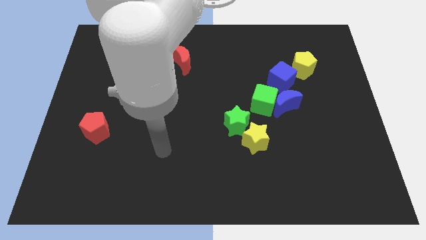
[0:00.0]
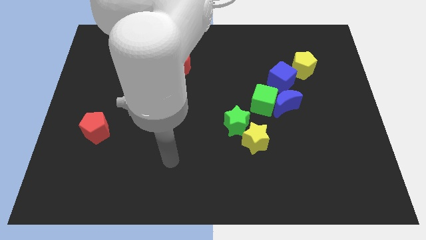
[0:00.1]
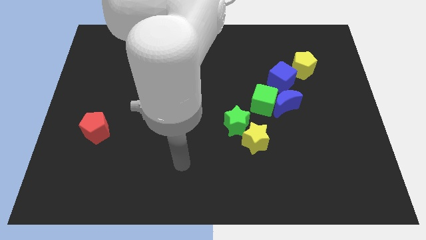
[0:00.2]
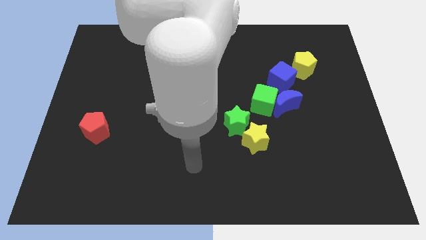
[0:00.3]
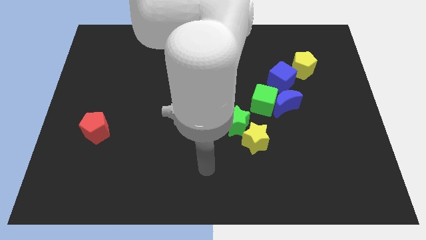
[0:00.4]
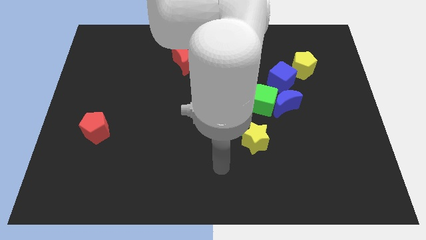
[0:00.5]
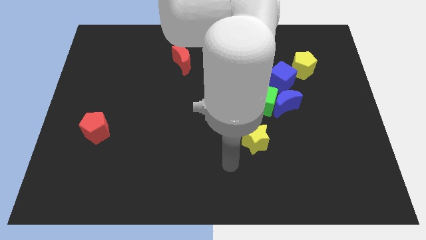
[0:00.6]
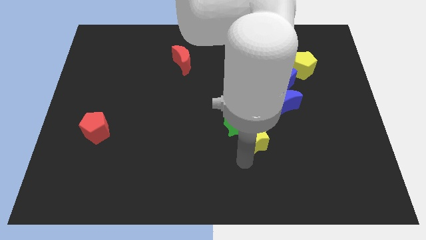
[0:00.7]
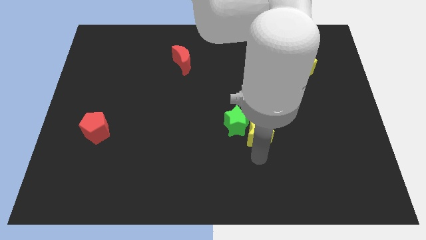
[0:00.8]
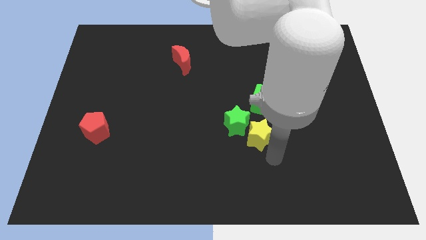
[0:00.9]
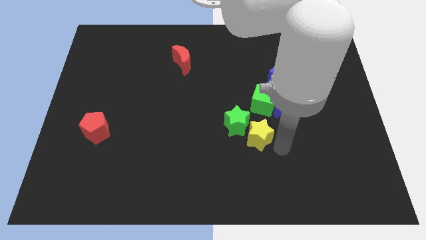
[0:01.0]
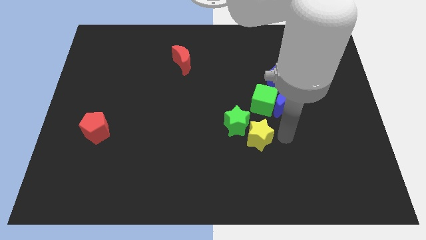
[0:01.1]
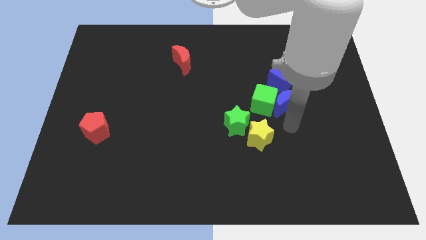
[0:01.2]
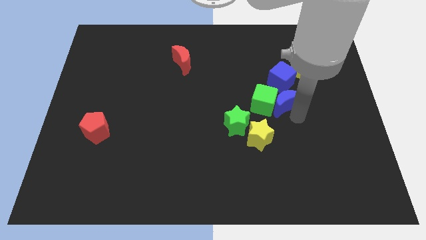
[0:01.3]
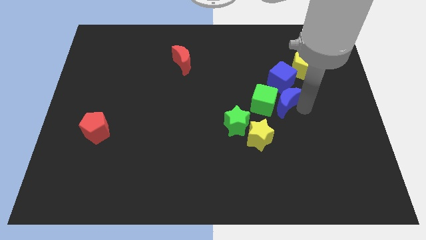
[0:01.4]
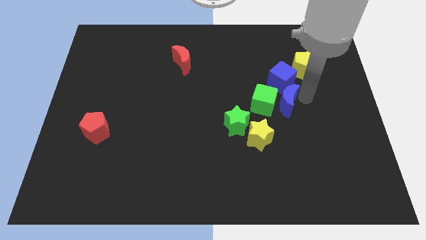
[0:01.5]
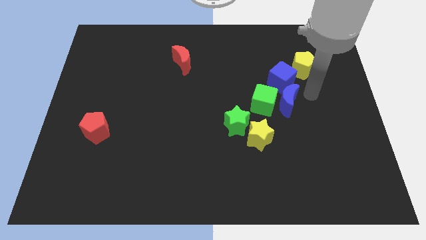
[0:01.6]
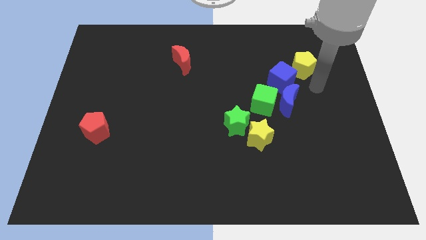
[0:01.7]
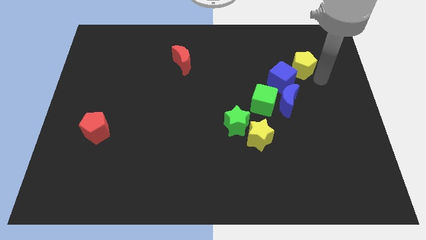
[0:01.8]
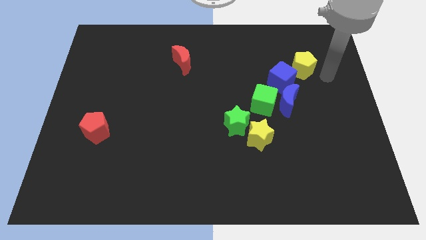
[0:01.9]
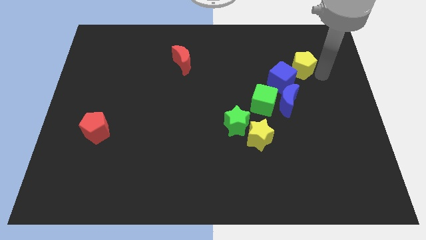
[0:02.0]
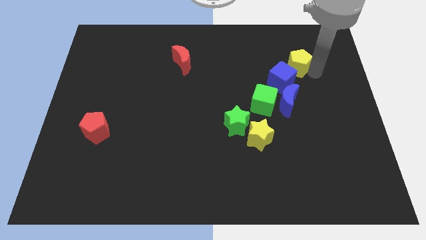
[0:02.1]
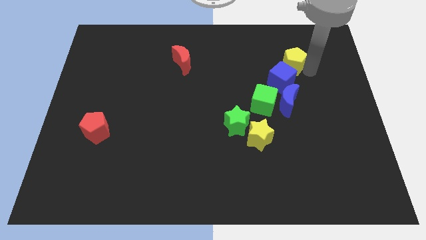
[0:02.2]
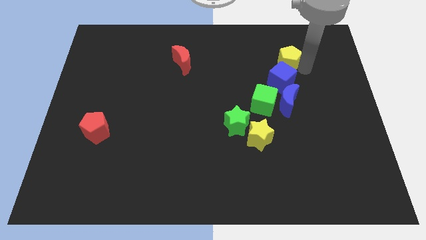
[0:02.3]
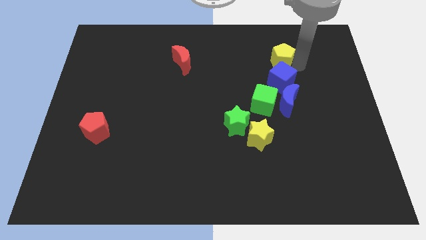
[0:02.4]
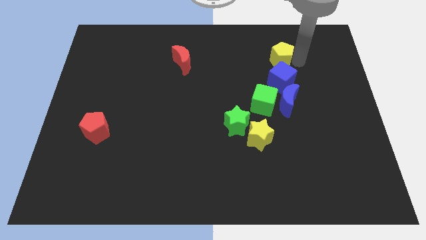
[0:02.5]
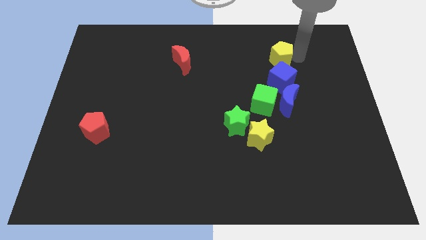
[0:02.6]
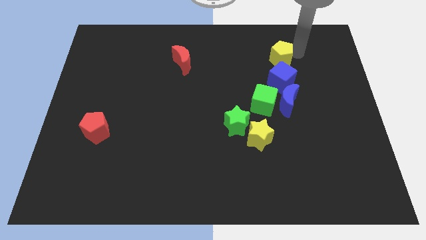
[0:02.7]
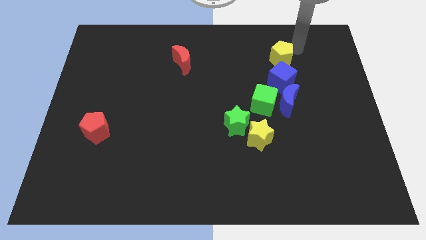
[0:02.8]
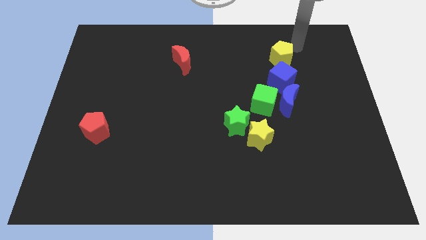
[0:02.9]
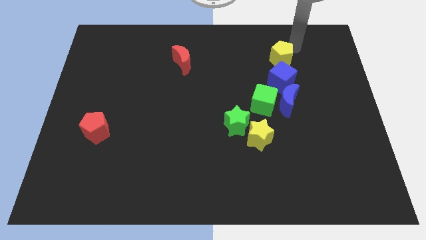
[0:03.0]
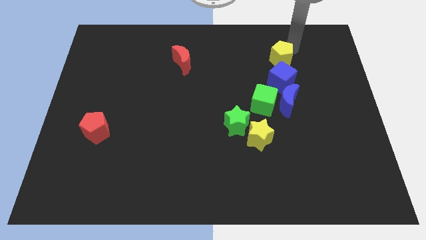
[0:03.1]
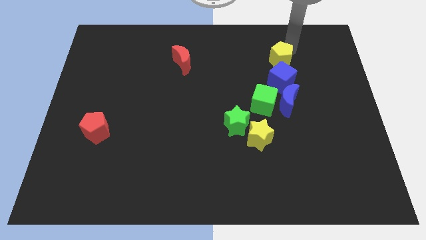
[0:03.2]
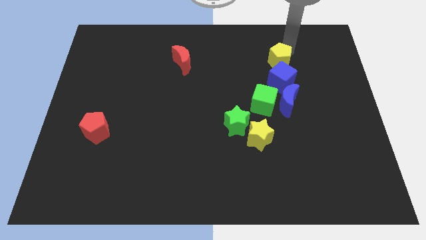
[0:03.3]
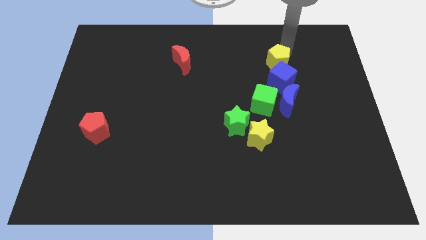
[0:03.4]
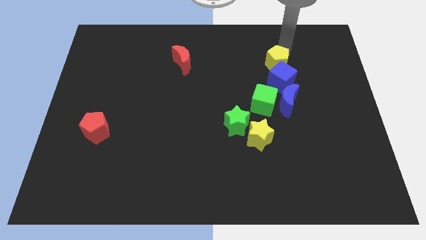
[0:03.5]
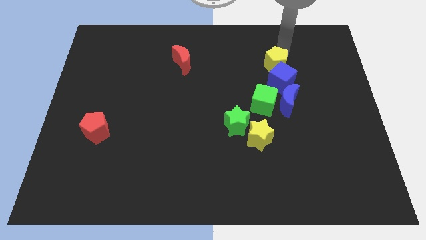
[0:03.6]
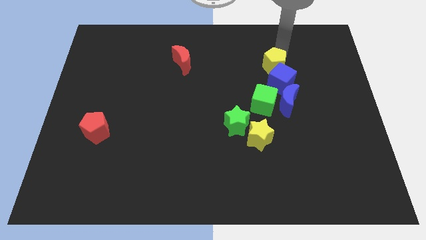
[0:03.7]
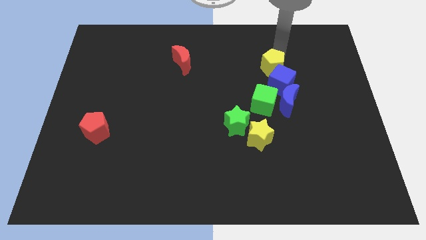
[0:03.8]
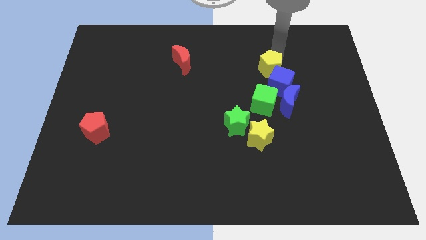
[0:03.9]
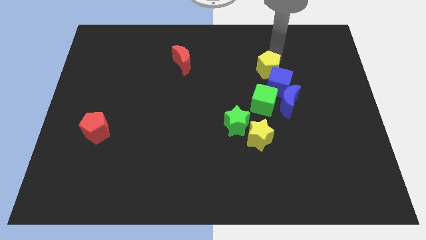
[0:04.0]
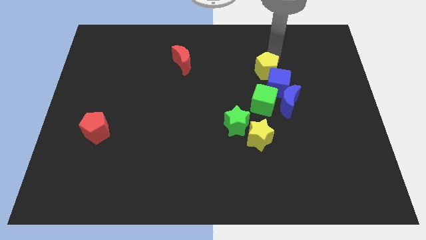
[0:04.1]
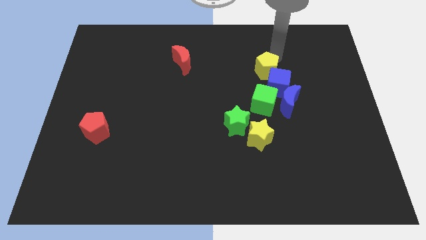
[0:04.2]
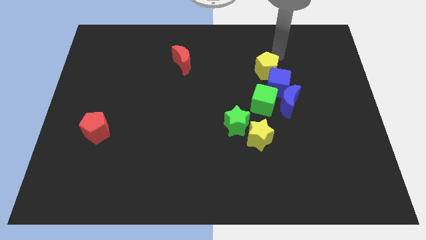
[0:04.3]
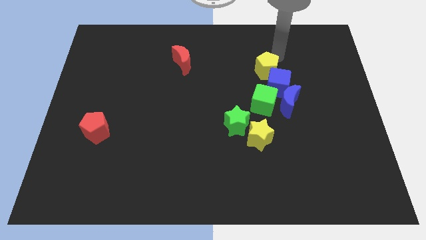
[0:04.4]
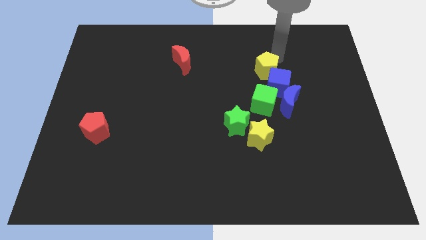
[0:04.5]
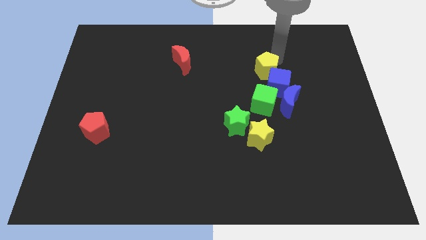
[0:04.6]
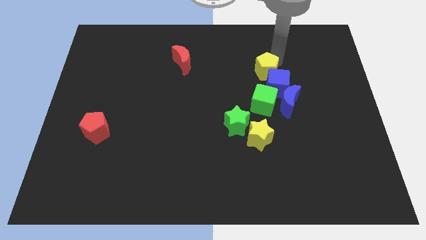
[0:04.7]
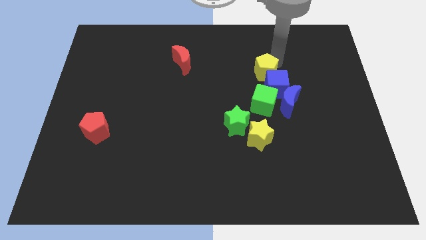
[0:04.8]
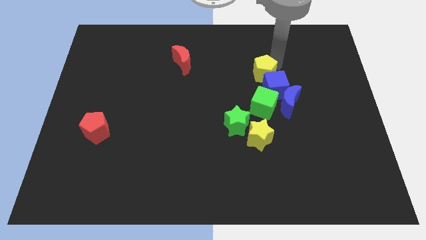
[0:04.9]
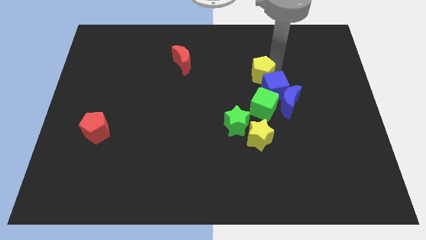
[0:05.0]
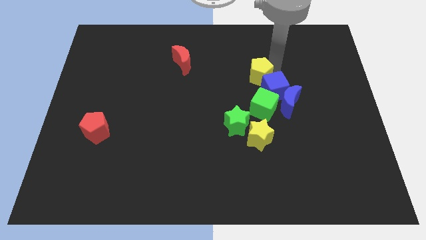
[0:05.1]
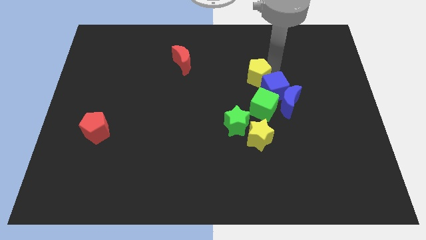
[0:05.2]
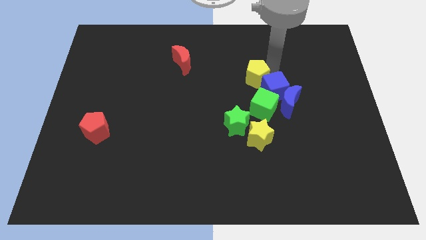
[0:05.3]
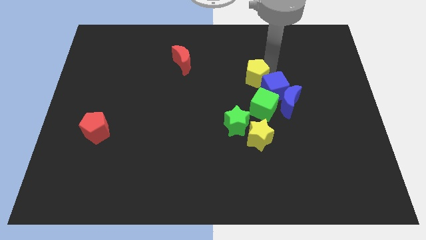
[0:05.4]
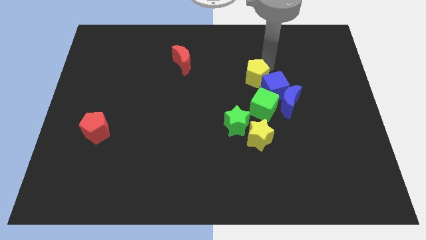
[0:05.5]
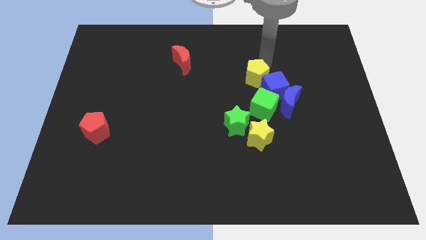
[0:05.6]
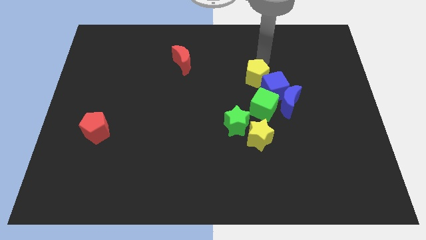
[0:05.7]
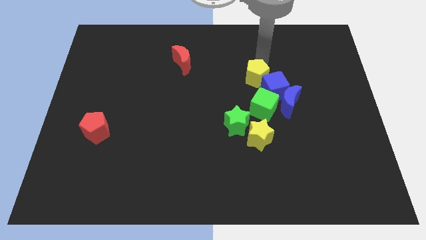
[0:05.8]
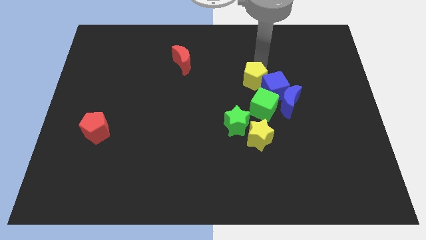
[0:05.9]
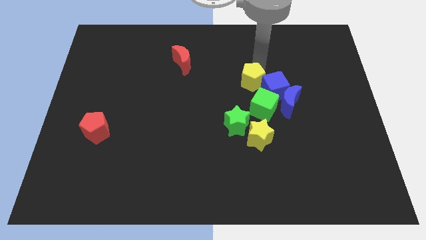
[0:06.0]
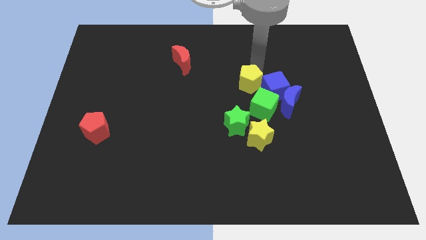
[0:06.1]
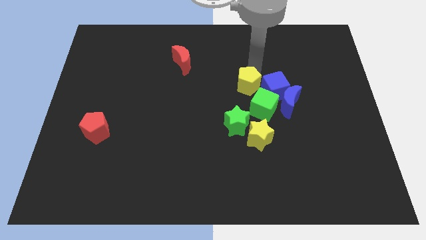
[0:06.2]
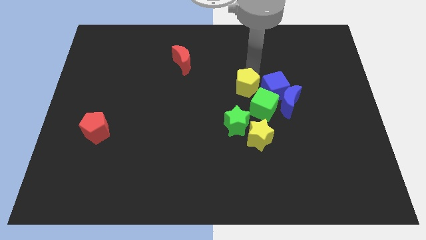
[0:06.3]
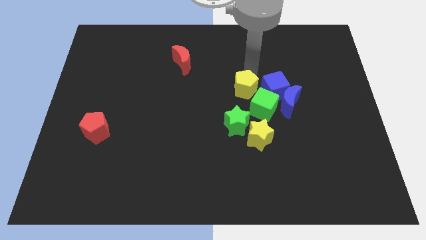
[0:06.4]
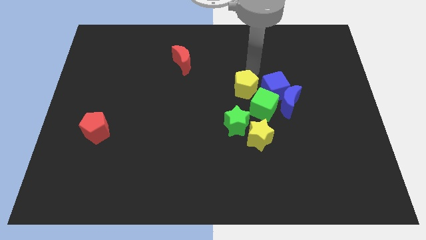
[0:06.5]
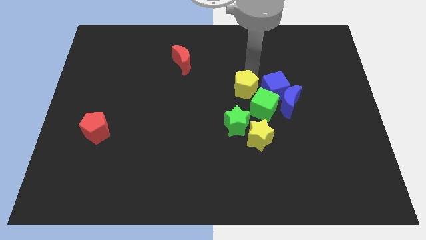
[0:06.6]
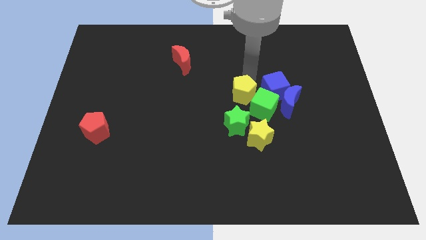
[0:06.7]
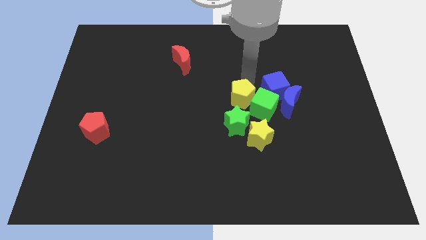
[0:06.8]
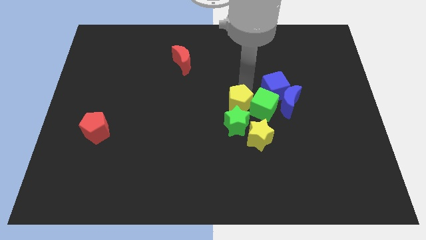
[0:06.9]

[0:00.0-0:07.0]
slide the yellow pentagon to the top left of the yellow star
